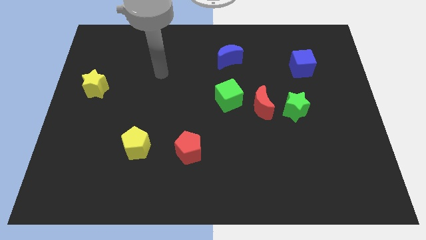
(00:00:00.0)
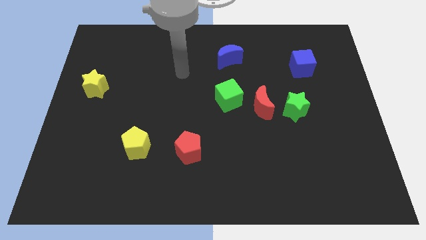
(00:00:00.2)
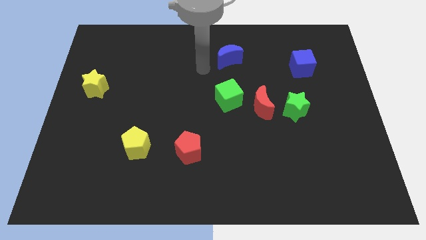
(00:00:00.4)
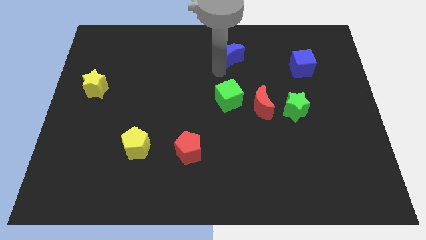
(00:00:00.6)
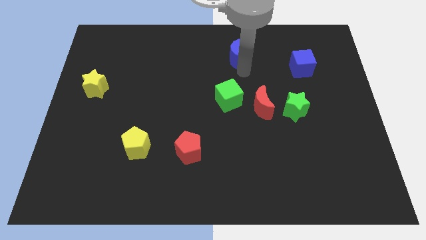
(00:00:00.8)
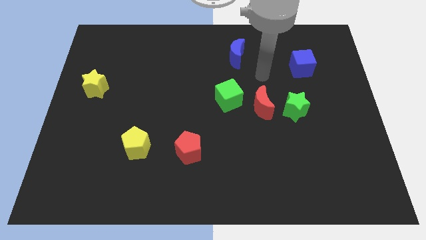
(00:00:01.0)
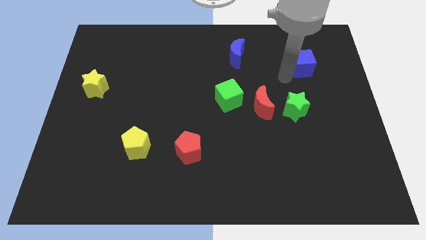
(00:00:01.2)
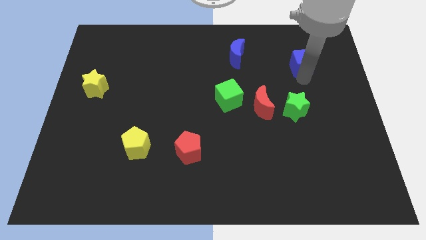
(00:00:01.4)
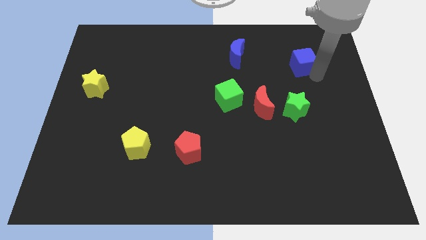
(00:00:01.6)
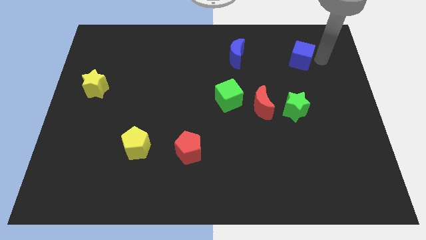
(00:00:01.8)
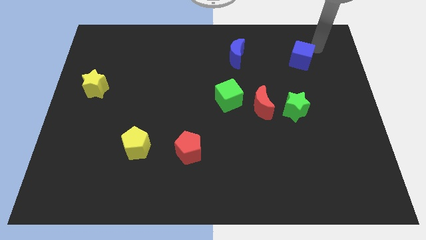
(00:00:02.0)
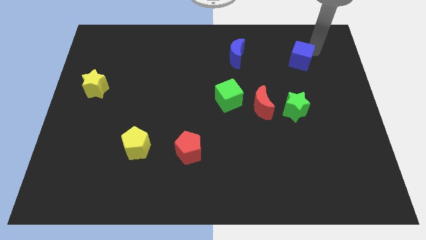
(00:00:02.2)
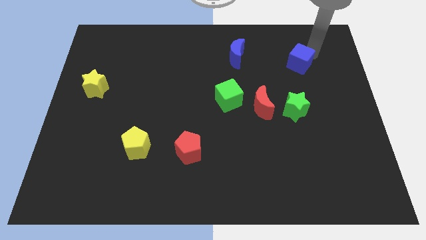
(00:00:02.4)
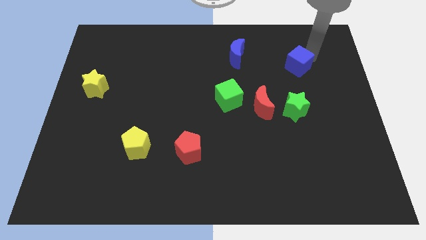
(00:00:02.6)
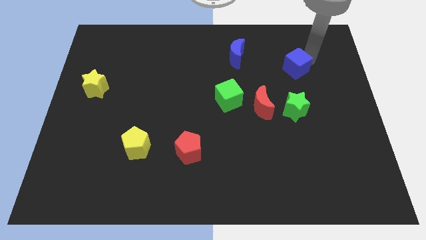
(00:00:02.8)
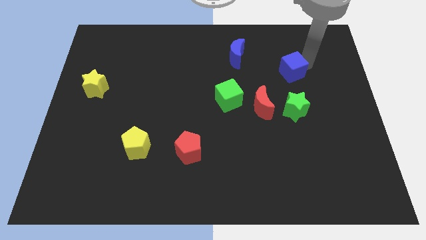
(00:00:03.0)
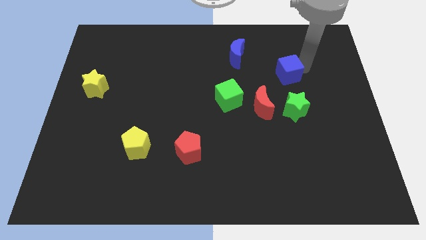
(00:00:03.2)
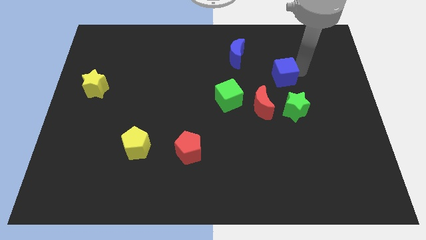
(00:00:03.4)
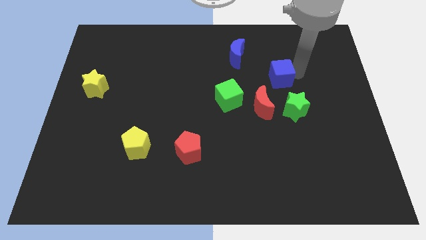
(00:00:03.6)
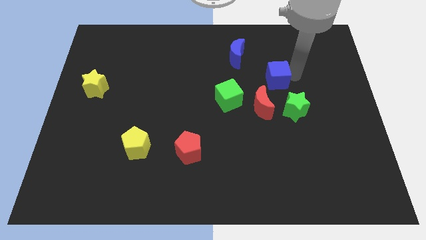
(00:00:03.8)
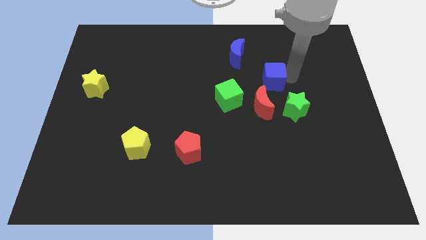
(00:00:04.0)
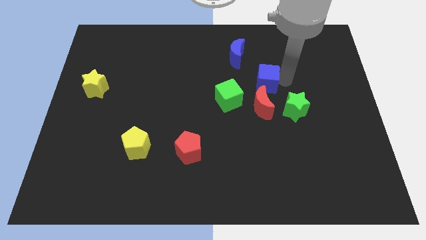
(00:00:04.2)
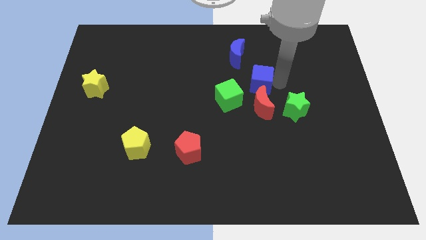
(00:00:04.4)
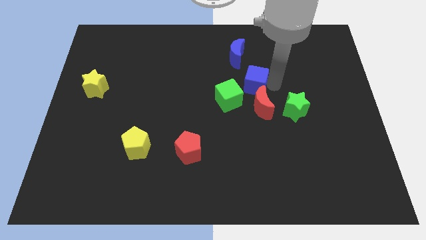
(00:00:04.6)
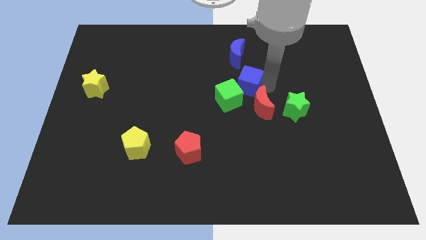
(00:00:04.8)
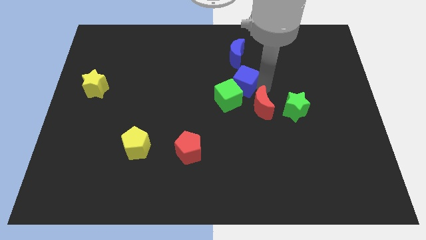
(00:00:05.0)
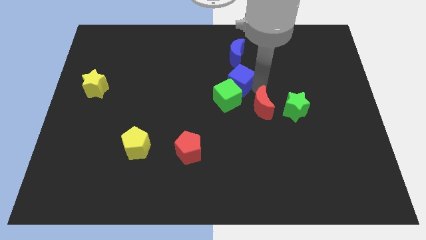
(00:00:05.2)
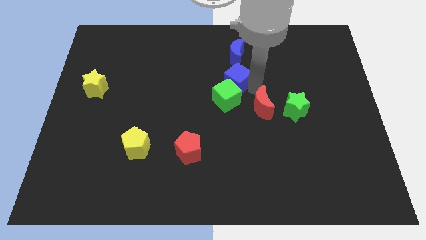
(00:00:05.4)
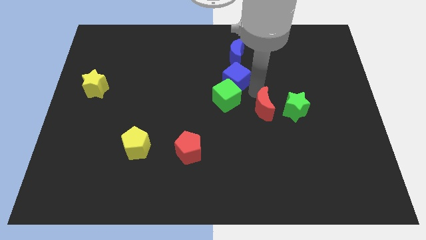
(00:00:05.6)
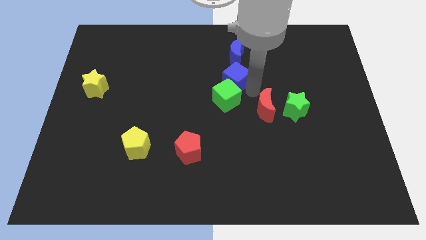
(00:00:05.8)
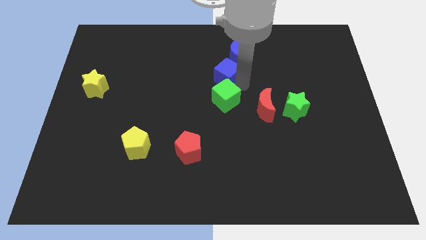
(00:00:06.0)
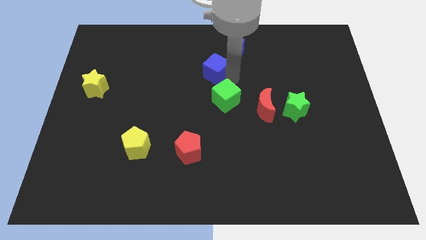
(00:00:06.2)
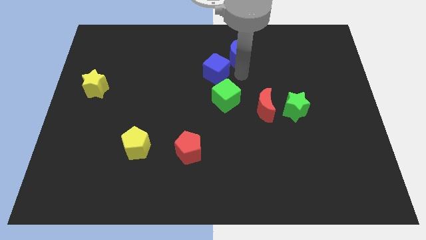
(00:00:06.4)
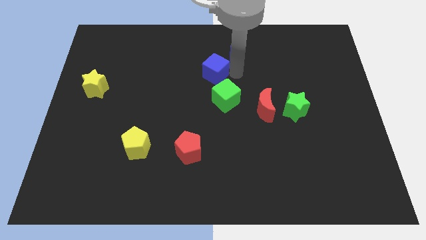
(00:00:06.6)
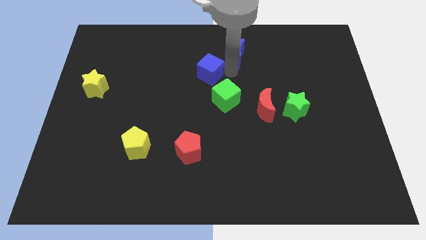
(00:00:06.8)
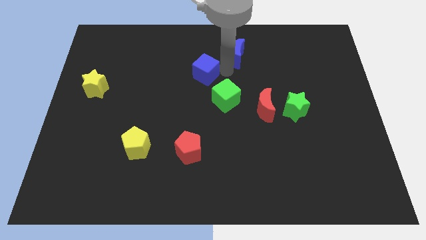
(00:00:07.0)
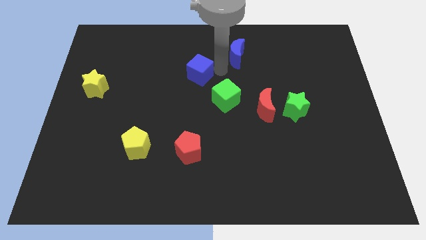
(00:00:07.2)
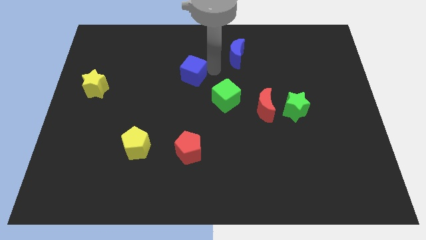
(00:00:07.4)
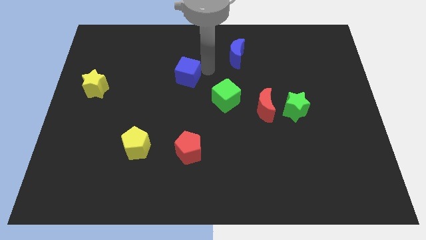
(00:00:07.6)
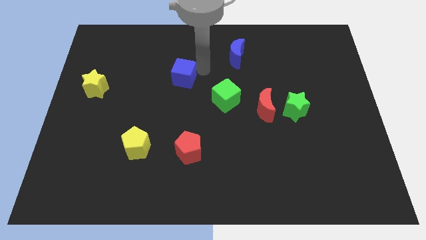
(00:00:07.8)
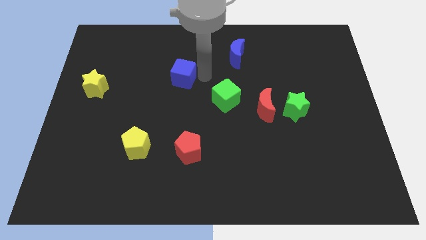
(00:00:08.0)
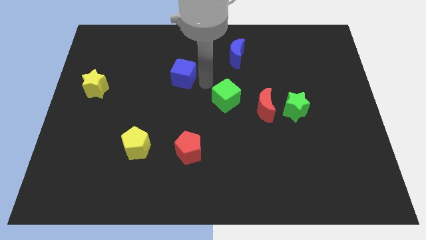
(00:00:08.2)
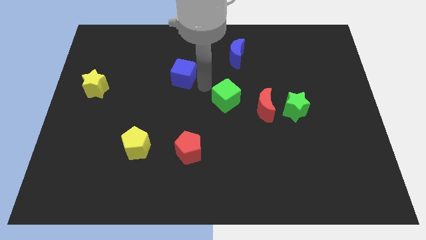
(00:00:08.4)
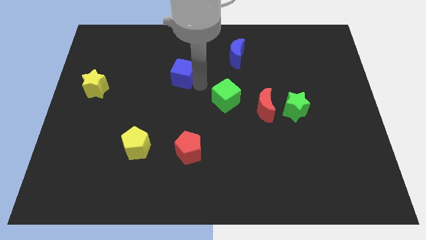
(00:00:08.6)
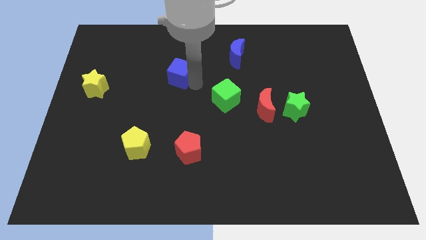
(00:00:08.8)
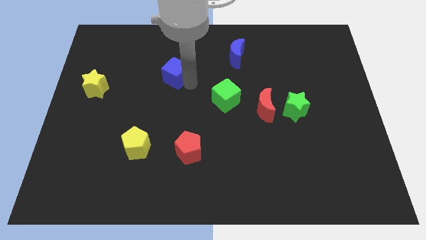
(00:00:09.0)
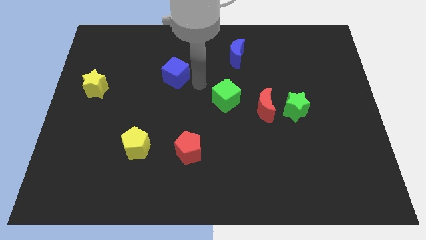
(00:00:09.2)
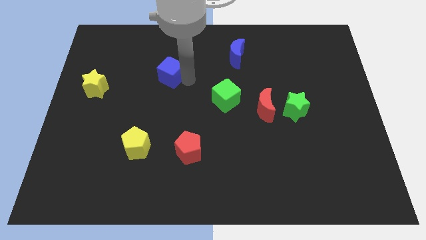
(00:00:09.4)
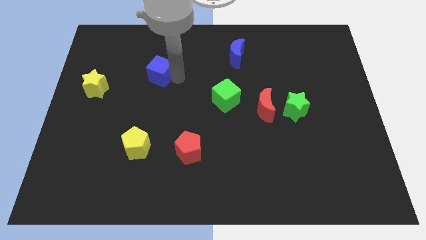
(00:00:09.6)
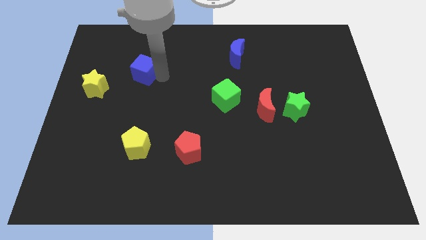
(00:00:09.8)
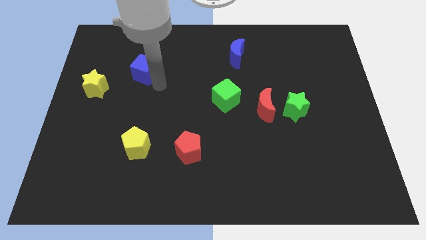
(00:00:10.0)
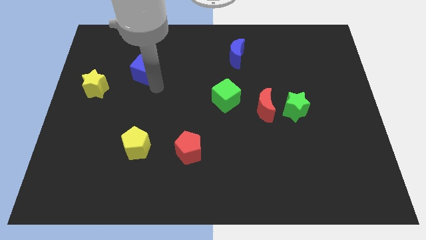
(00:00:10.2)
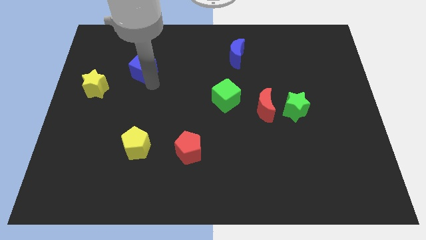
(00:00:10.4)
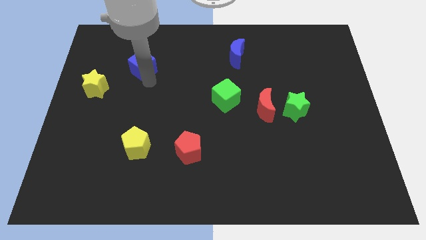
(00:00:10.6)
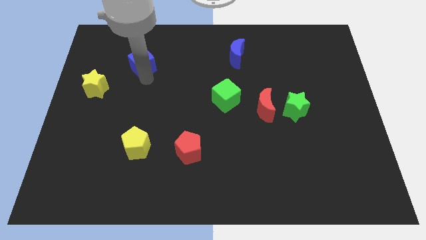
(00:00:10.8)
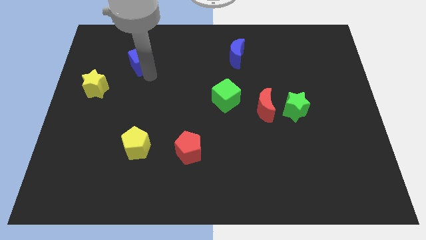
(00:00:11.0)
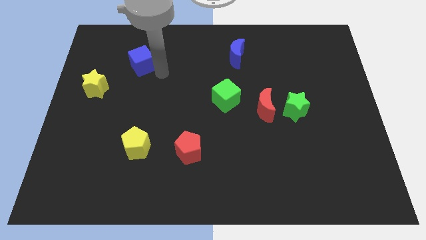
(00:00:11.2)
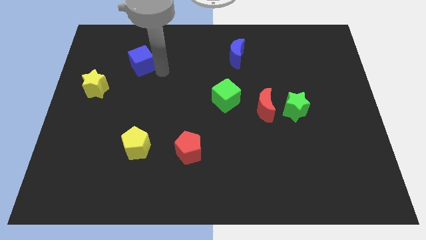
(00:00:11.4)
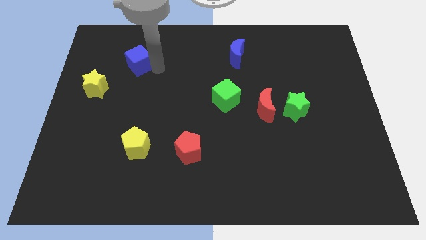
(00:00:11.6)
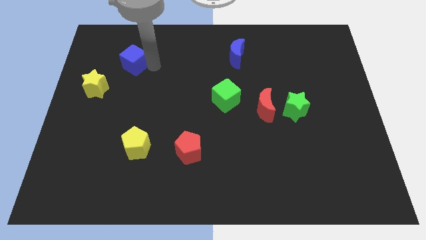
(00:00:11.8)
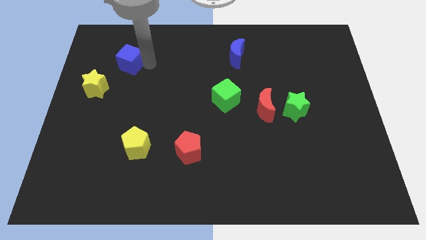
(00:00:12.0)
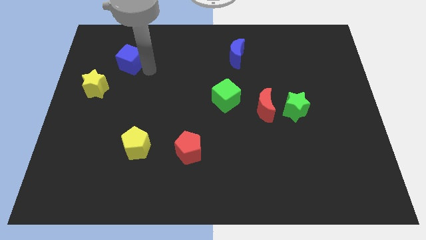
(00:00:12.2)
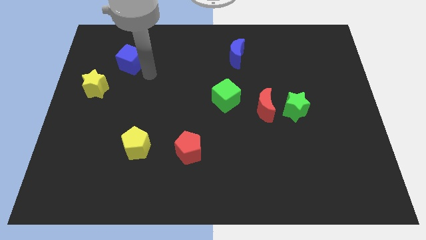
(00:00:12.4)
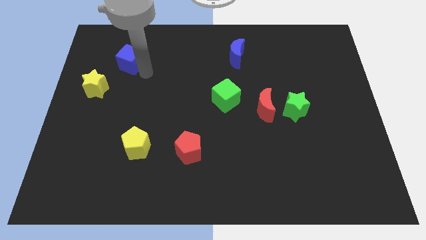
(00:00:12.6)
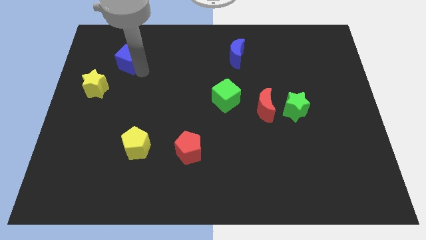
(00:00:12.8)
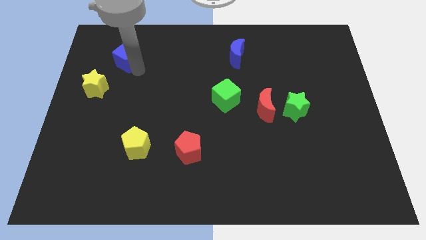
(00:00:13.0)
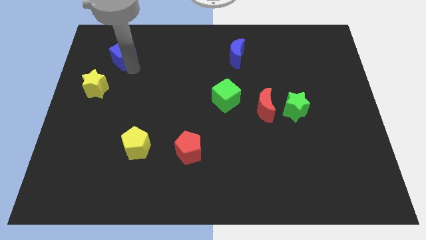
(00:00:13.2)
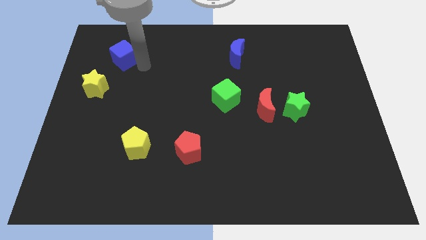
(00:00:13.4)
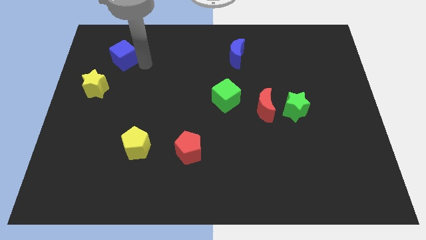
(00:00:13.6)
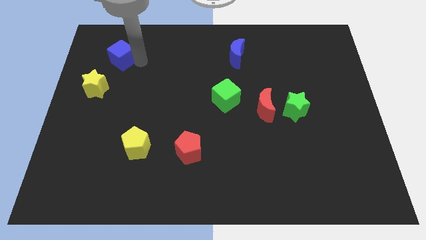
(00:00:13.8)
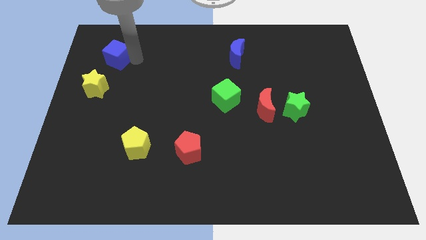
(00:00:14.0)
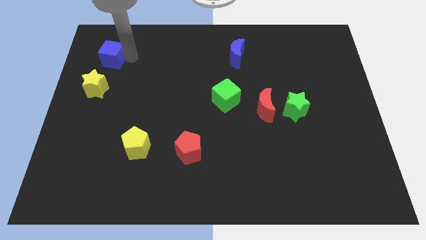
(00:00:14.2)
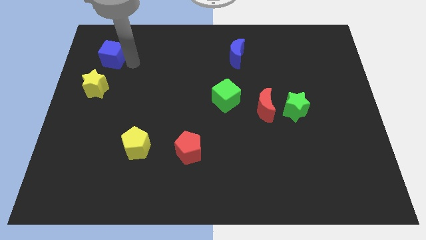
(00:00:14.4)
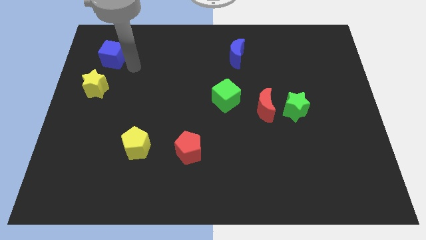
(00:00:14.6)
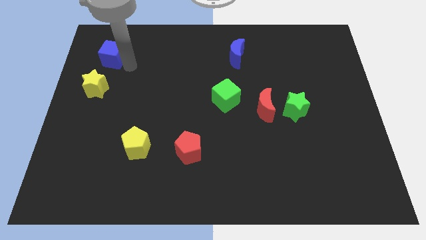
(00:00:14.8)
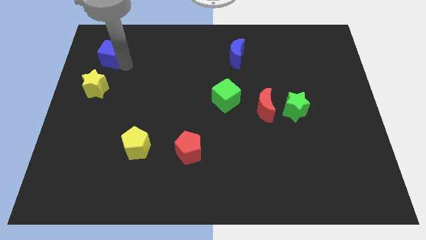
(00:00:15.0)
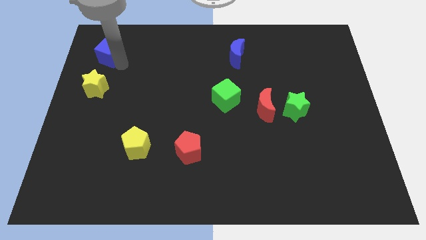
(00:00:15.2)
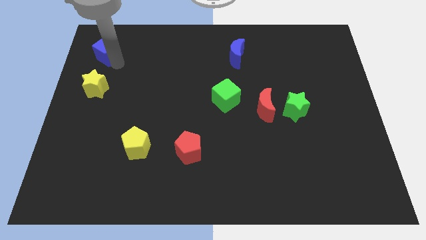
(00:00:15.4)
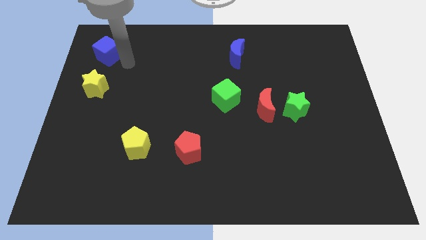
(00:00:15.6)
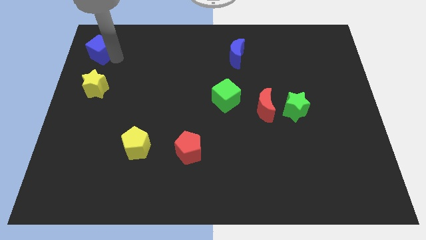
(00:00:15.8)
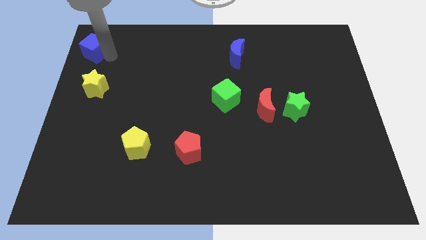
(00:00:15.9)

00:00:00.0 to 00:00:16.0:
slide the blue cube to the top left corner
